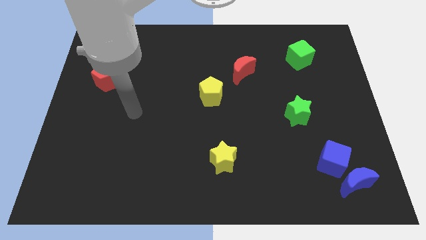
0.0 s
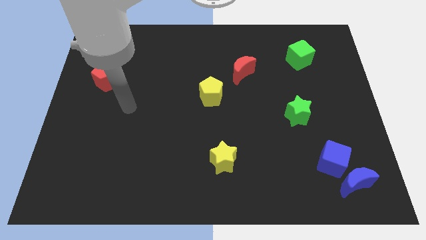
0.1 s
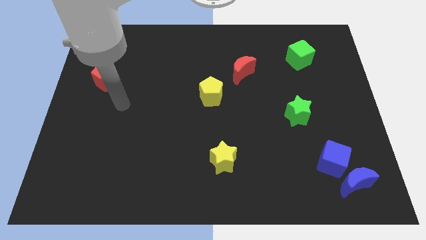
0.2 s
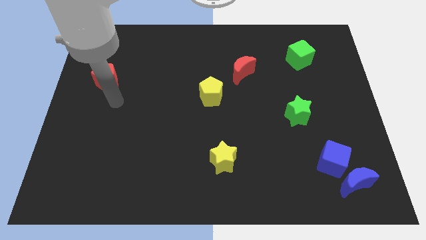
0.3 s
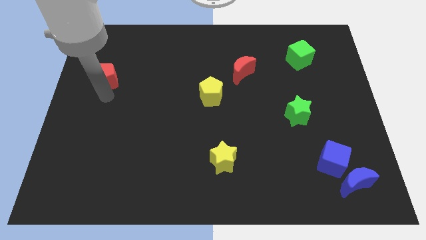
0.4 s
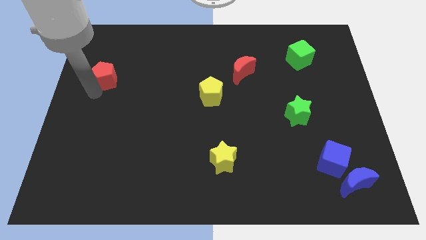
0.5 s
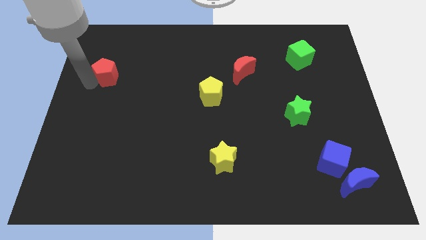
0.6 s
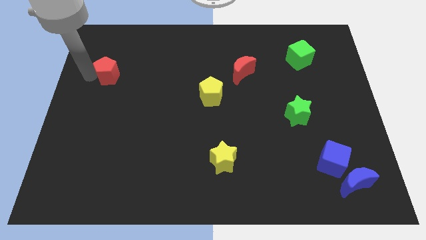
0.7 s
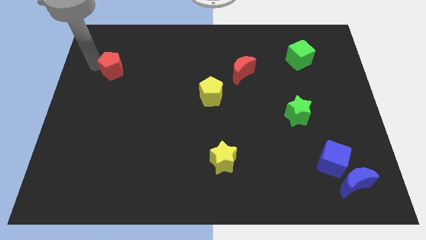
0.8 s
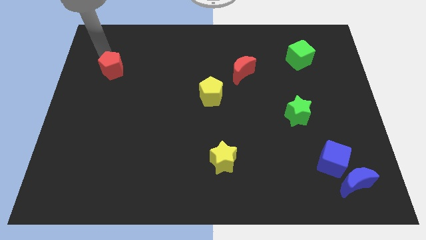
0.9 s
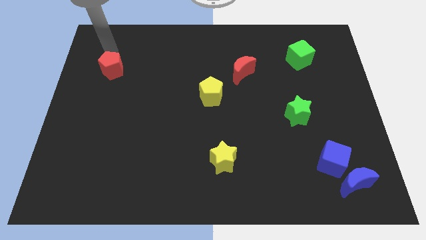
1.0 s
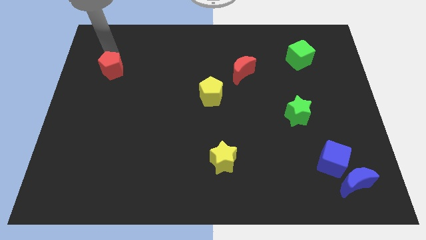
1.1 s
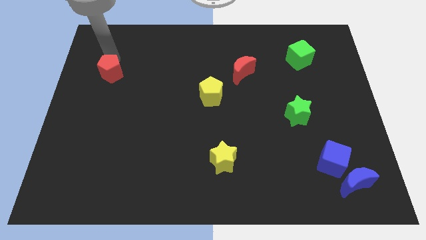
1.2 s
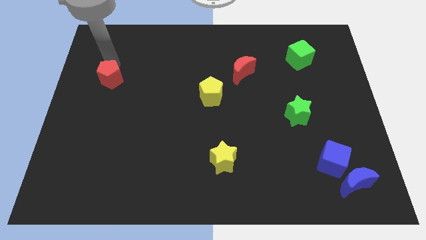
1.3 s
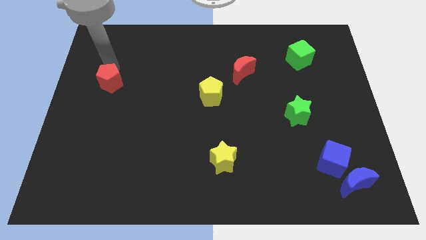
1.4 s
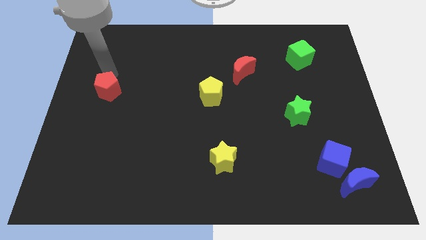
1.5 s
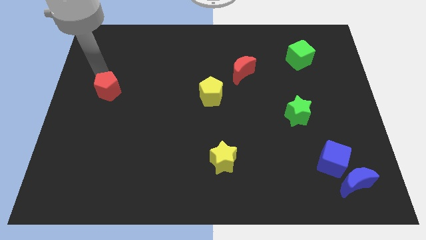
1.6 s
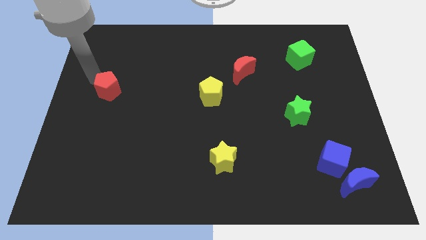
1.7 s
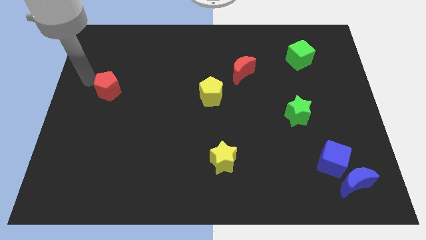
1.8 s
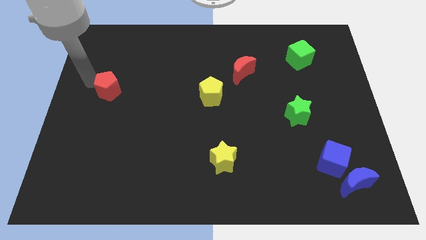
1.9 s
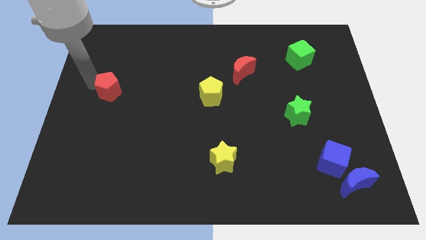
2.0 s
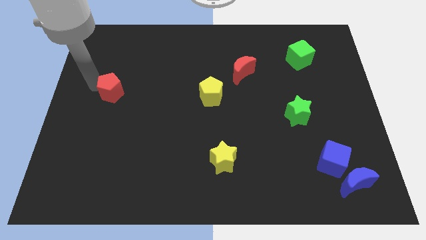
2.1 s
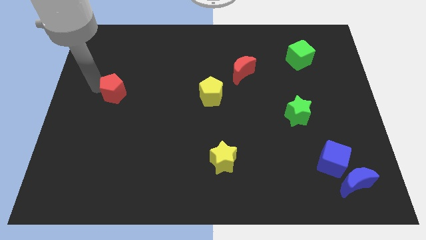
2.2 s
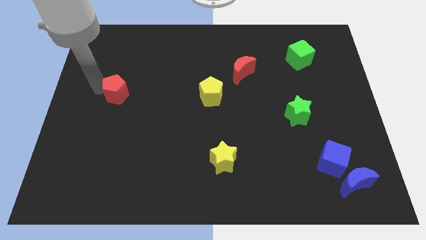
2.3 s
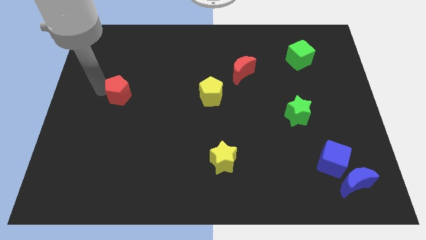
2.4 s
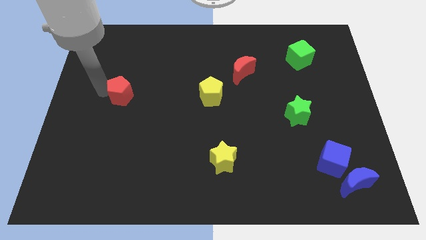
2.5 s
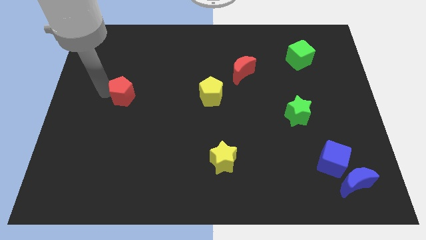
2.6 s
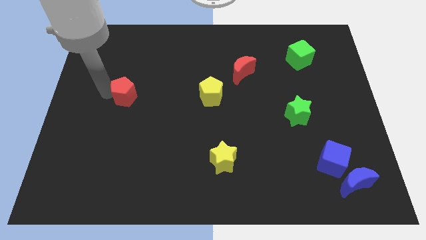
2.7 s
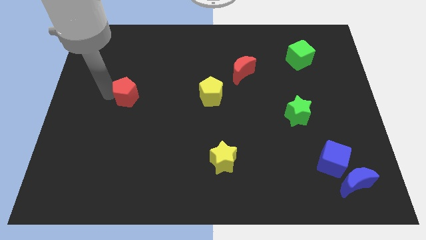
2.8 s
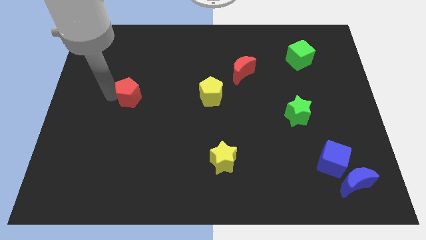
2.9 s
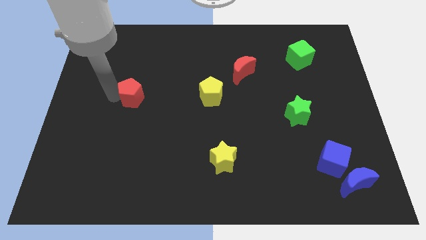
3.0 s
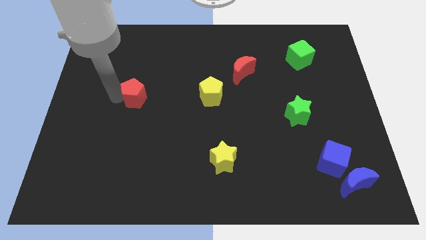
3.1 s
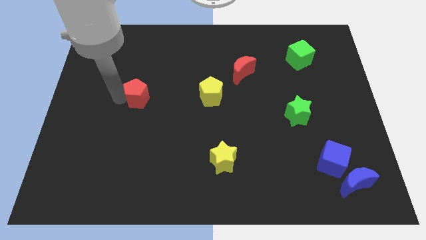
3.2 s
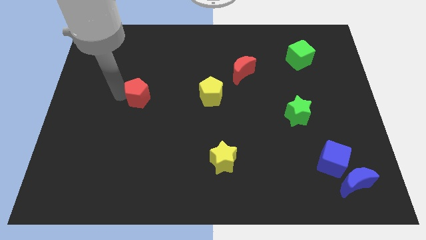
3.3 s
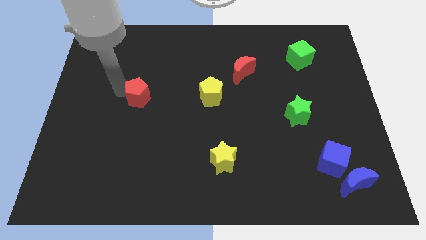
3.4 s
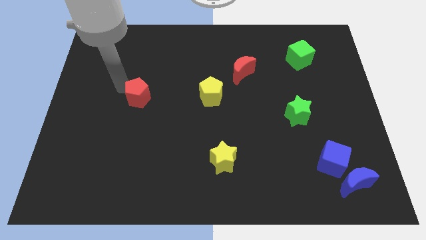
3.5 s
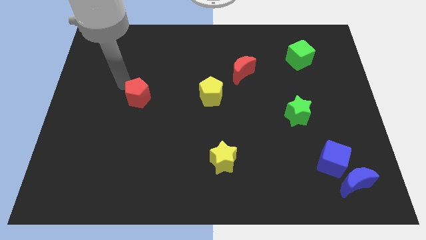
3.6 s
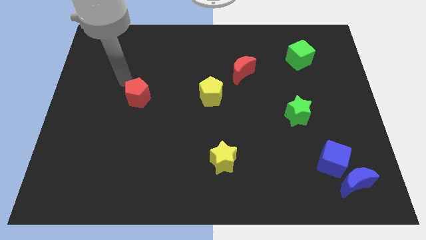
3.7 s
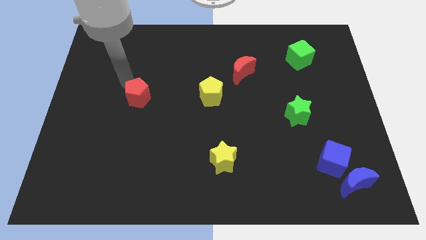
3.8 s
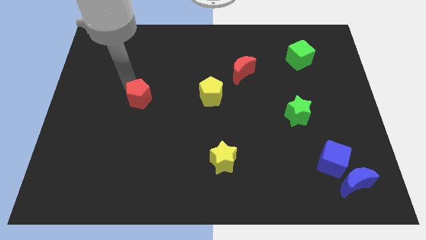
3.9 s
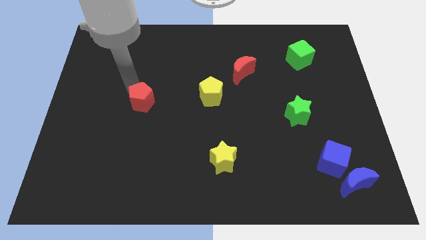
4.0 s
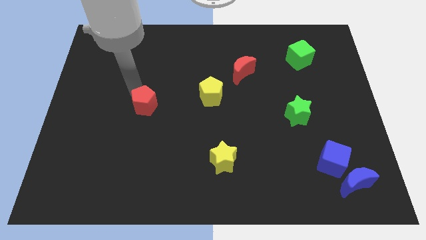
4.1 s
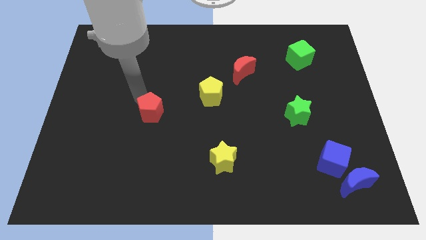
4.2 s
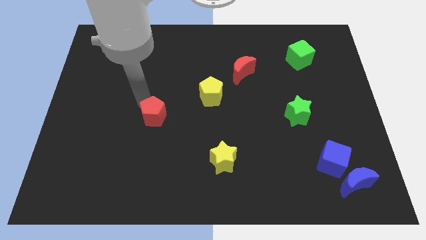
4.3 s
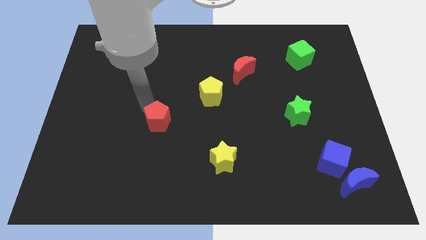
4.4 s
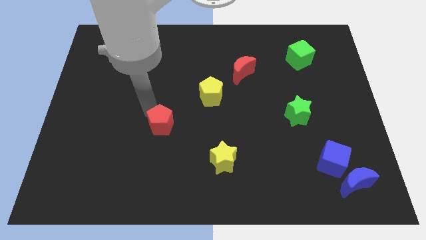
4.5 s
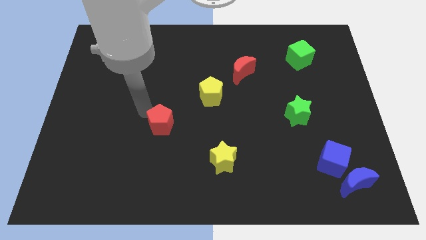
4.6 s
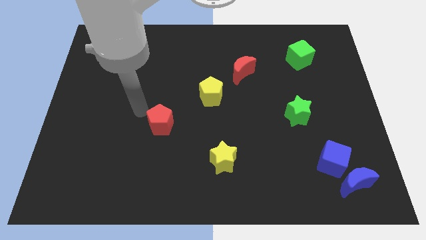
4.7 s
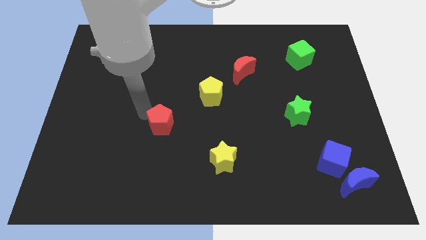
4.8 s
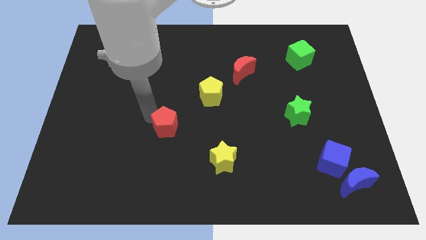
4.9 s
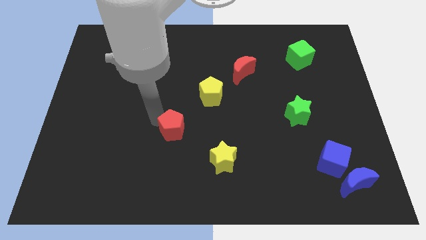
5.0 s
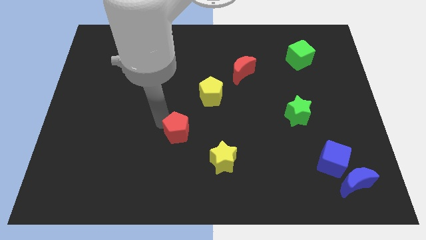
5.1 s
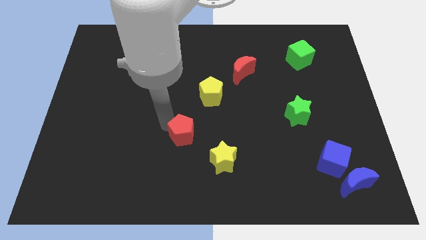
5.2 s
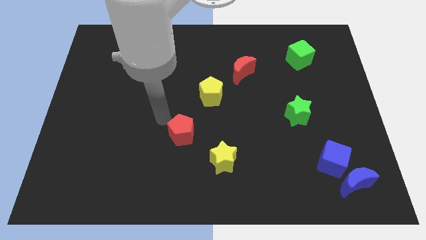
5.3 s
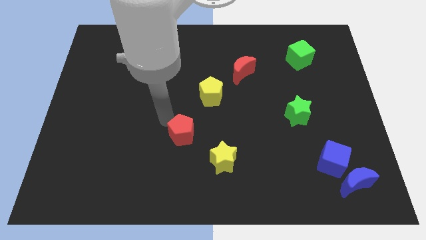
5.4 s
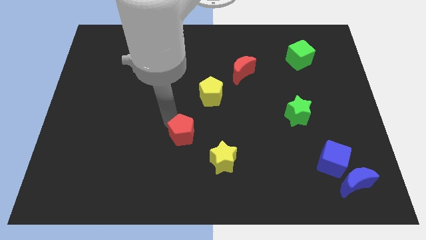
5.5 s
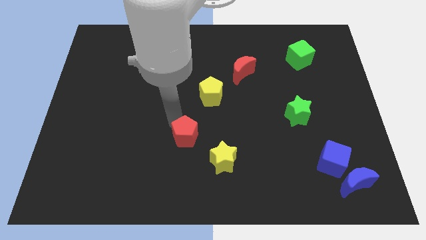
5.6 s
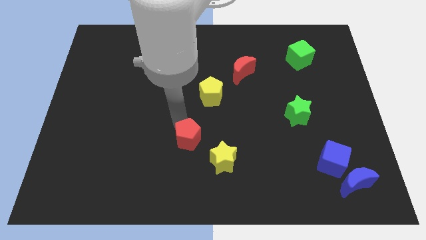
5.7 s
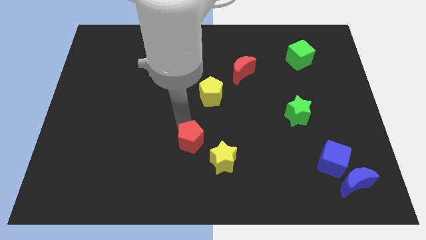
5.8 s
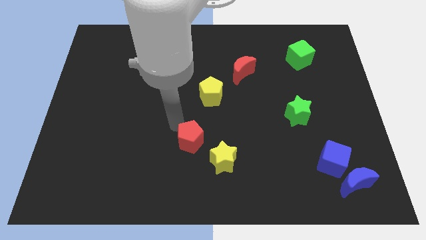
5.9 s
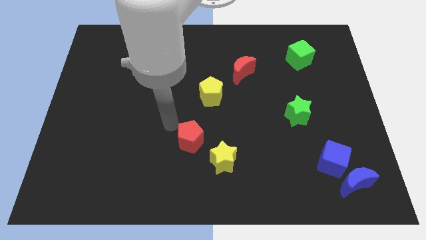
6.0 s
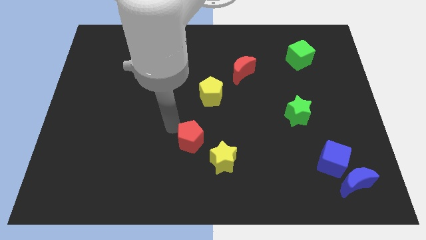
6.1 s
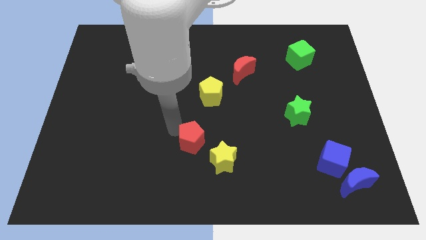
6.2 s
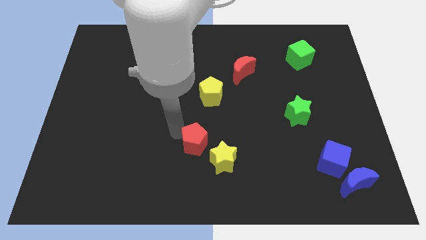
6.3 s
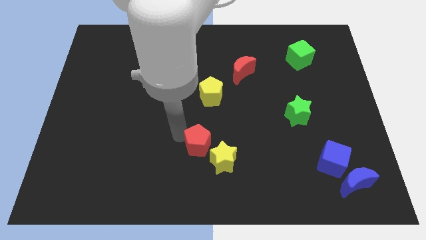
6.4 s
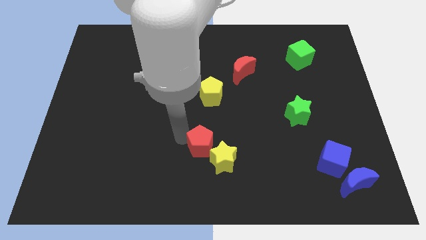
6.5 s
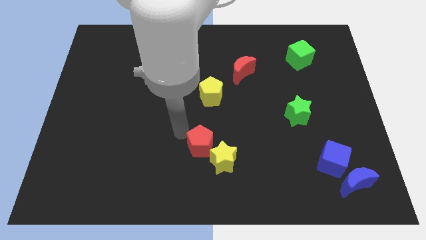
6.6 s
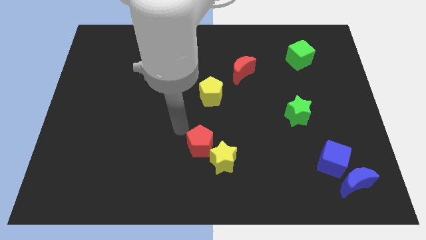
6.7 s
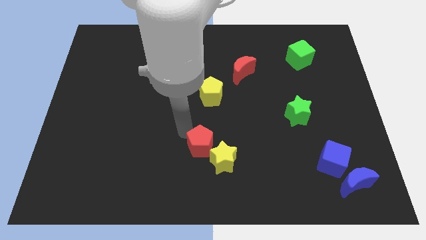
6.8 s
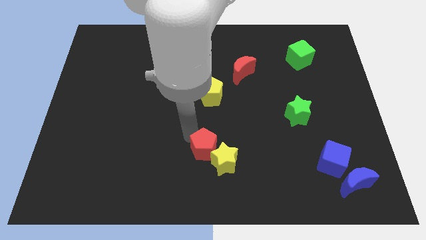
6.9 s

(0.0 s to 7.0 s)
move the red pentagon to the yellow star

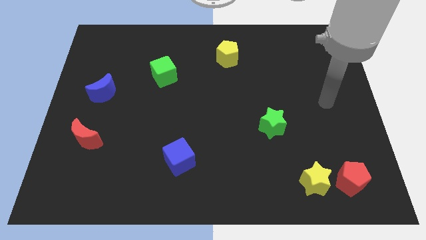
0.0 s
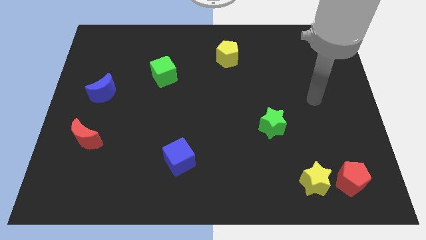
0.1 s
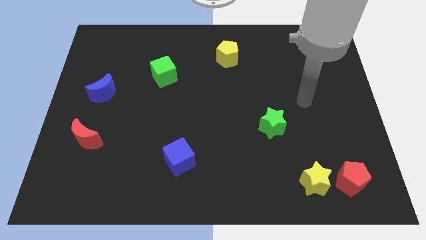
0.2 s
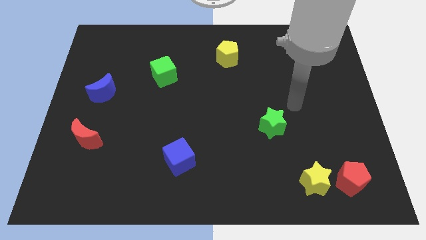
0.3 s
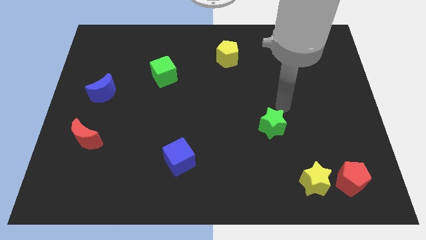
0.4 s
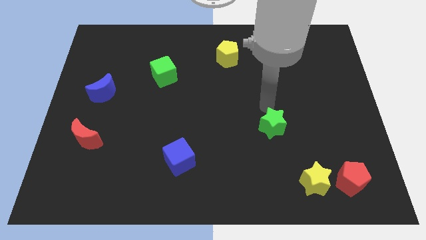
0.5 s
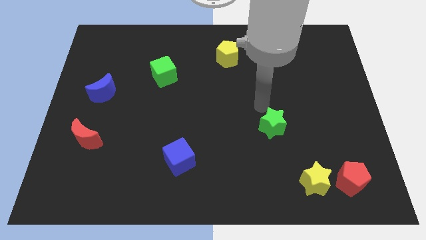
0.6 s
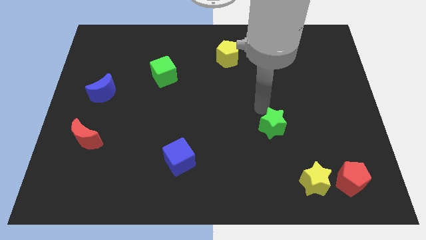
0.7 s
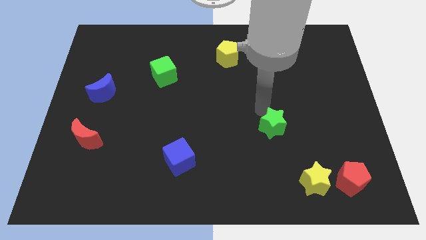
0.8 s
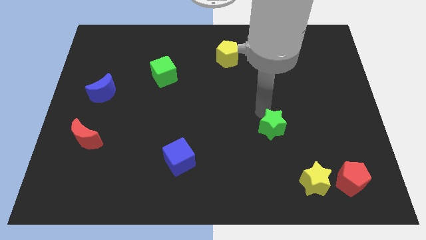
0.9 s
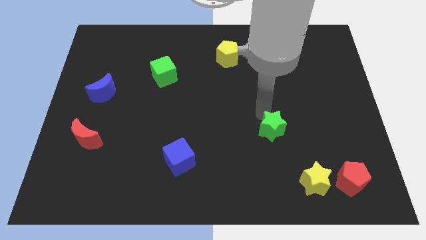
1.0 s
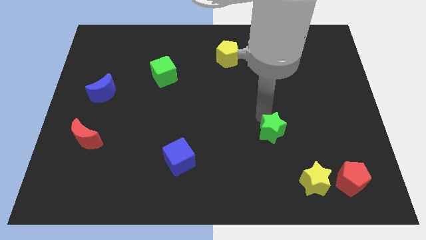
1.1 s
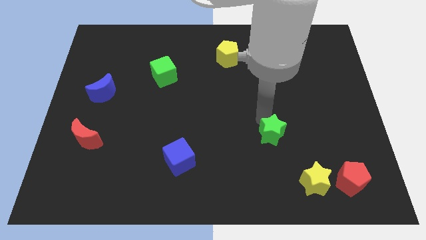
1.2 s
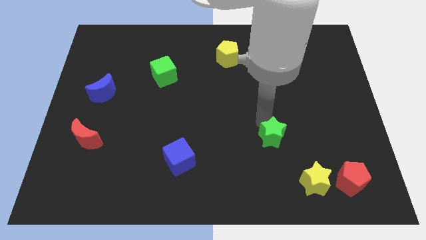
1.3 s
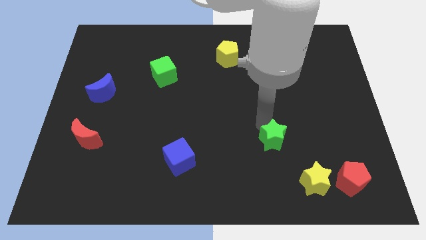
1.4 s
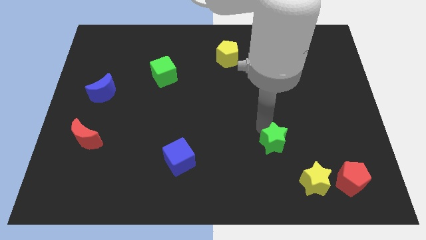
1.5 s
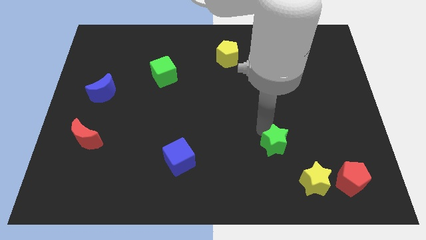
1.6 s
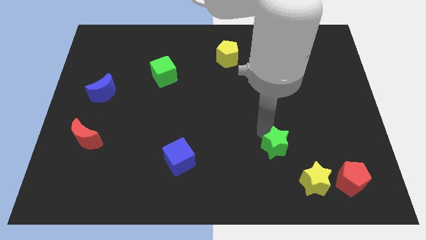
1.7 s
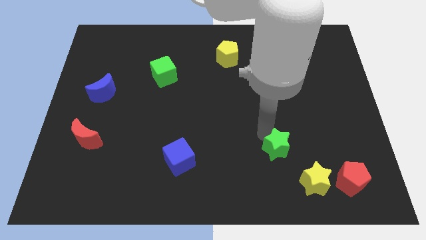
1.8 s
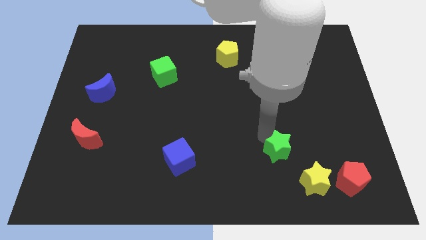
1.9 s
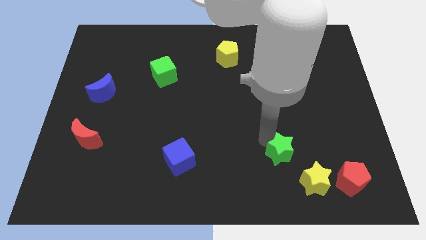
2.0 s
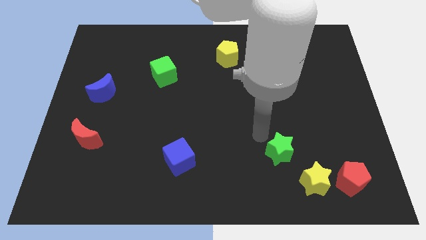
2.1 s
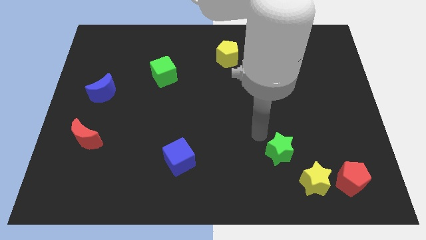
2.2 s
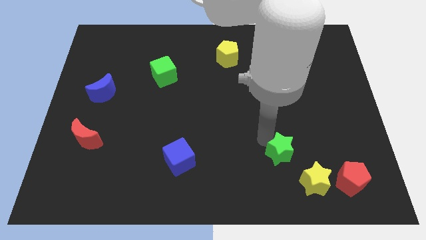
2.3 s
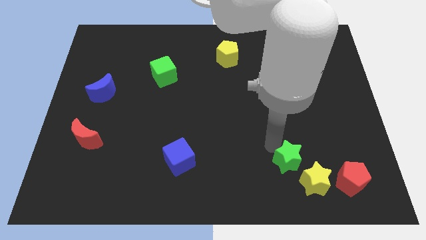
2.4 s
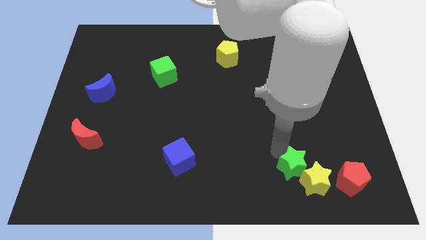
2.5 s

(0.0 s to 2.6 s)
push the green star next to the yellow star
